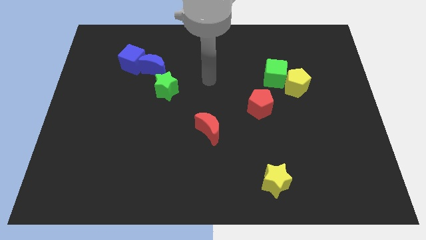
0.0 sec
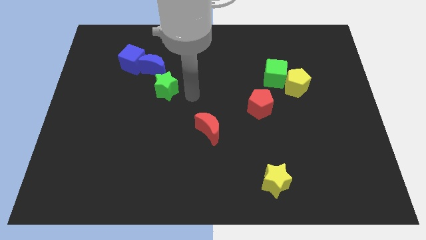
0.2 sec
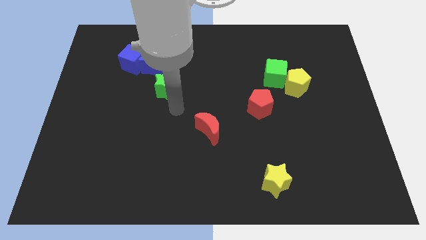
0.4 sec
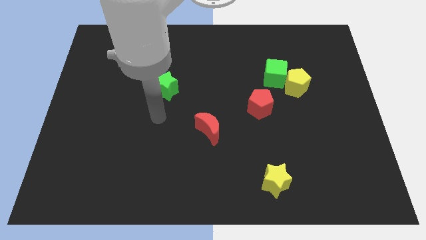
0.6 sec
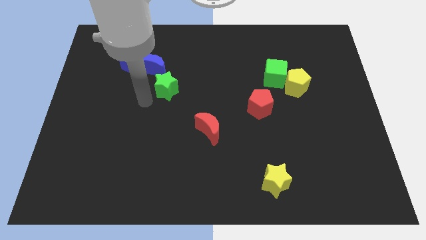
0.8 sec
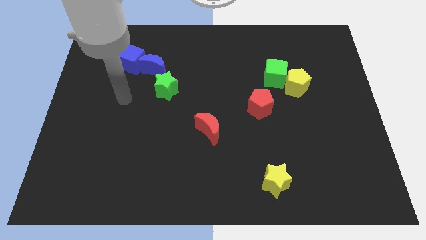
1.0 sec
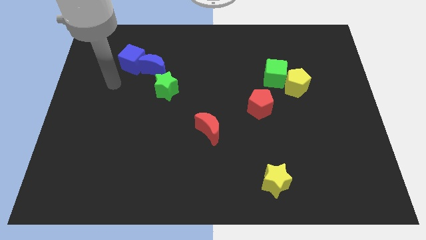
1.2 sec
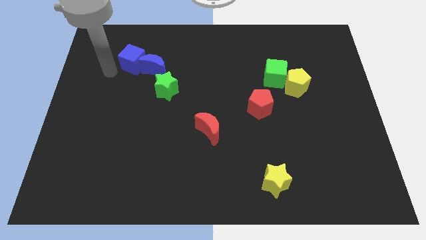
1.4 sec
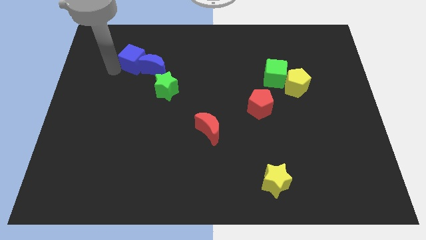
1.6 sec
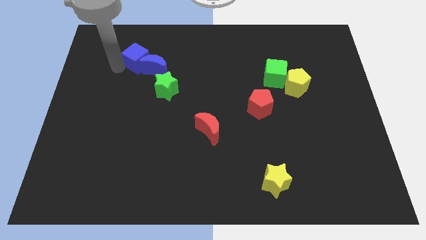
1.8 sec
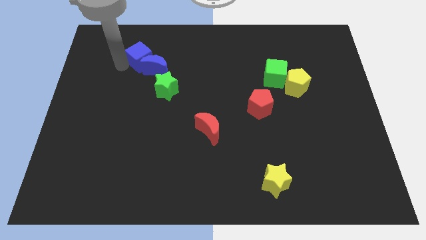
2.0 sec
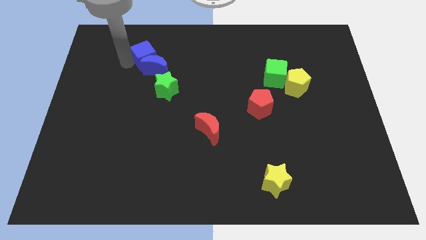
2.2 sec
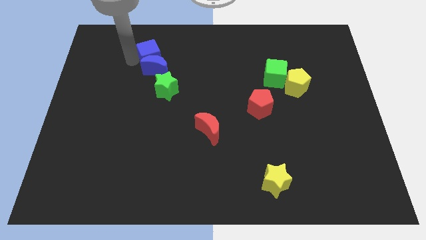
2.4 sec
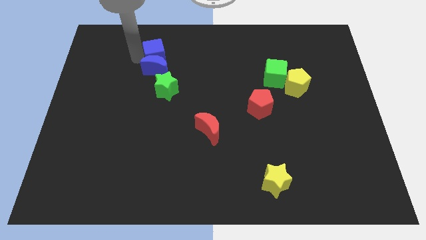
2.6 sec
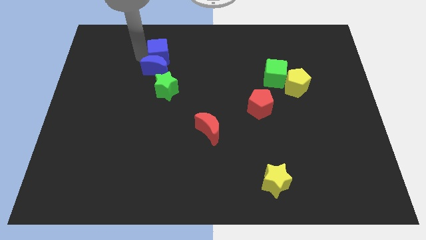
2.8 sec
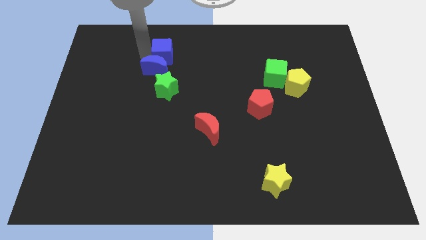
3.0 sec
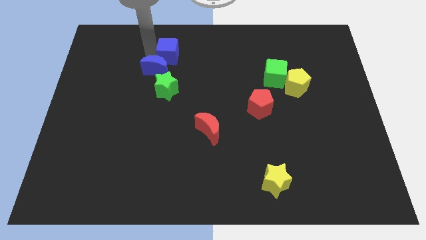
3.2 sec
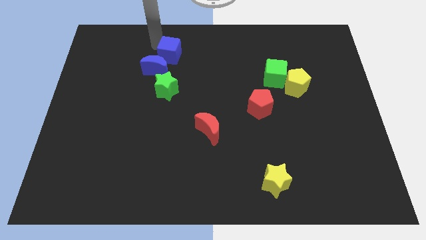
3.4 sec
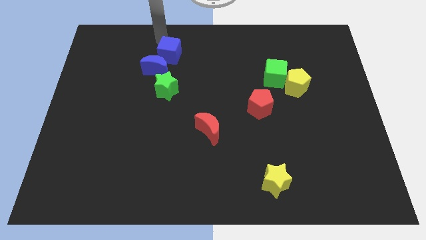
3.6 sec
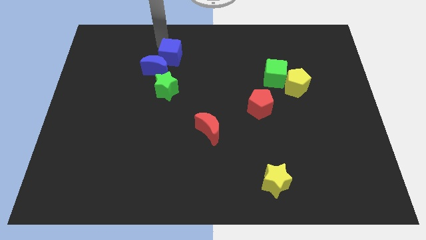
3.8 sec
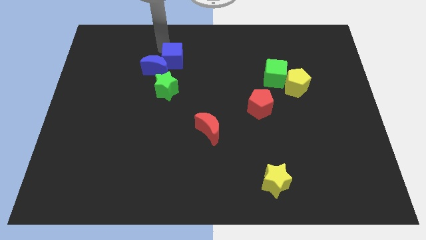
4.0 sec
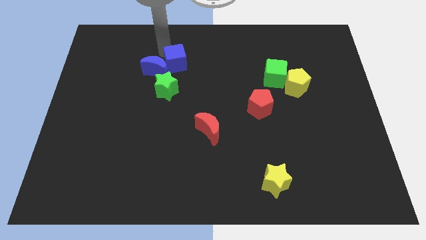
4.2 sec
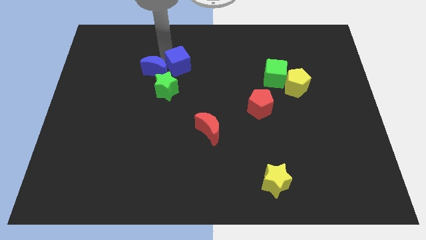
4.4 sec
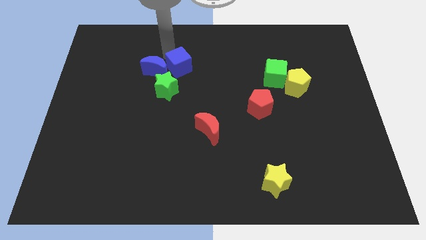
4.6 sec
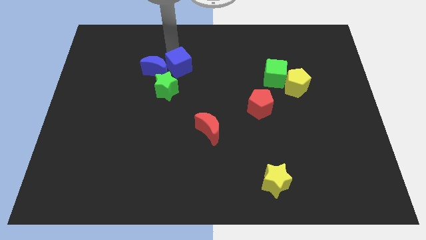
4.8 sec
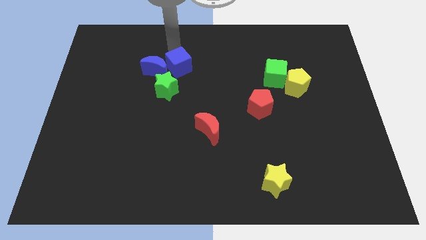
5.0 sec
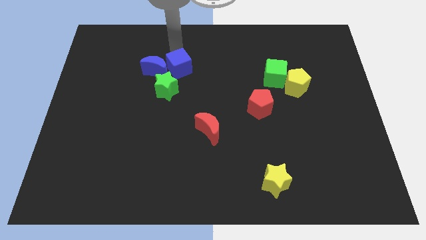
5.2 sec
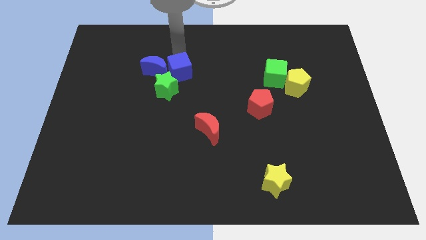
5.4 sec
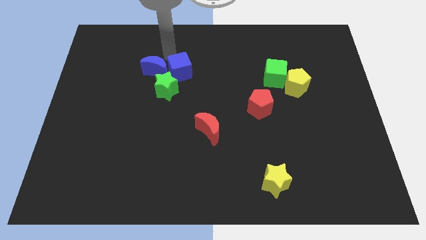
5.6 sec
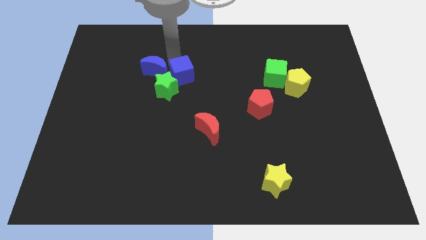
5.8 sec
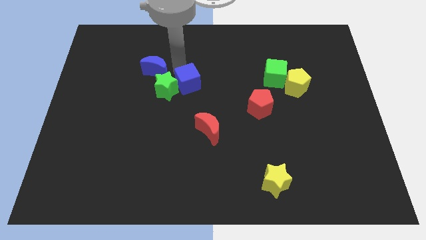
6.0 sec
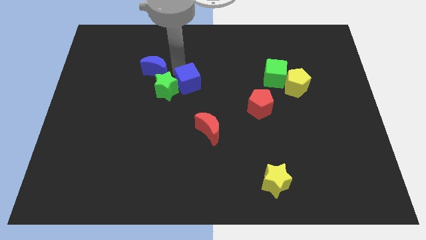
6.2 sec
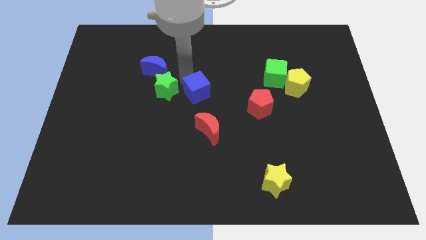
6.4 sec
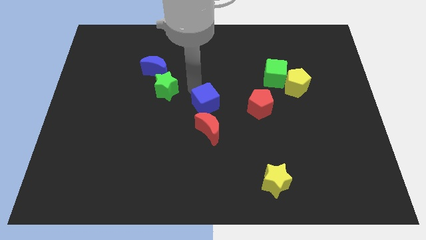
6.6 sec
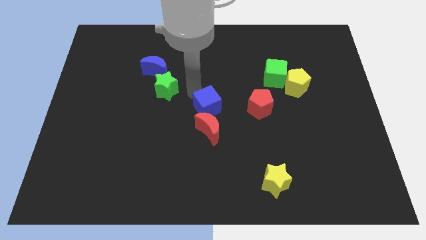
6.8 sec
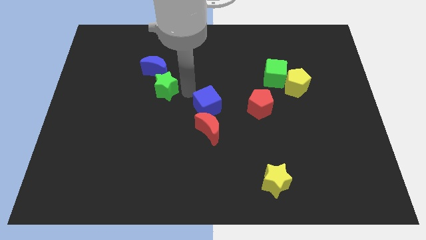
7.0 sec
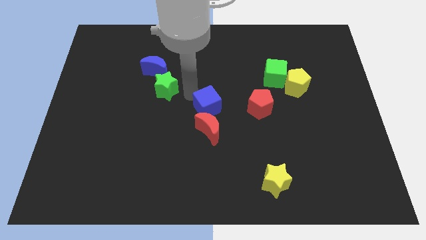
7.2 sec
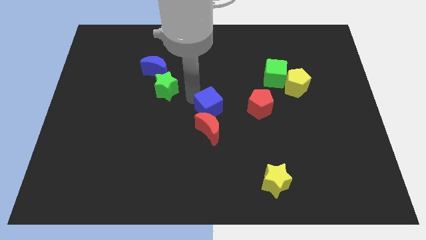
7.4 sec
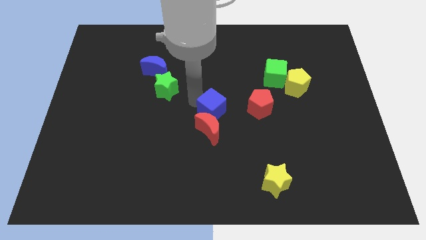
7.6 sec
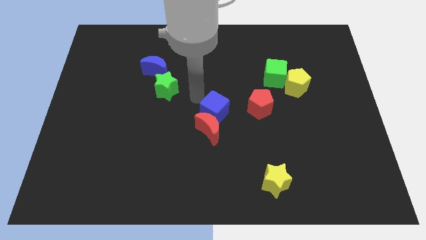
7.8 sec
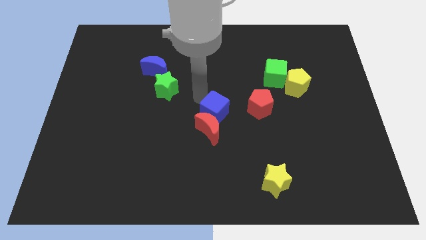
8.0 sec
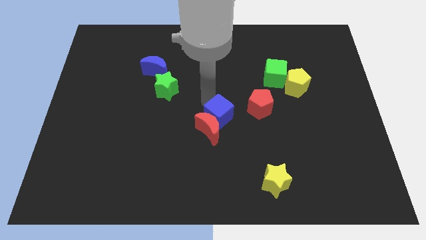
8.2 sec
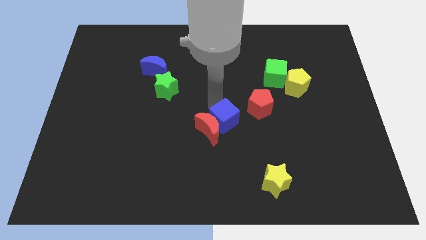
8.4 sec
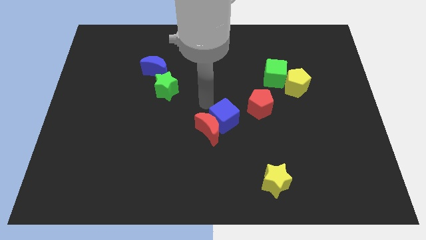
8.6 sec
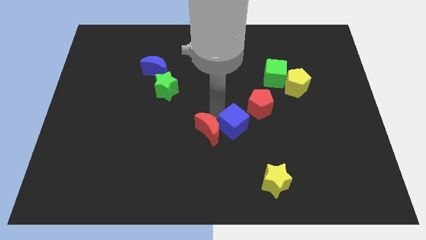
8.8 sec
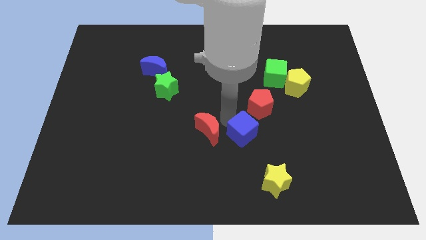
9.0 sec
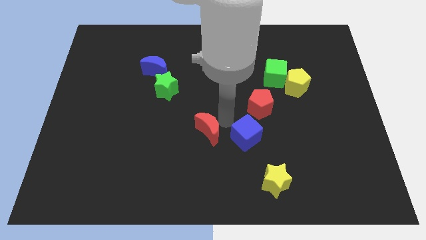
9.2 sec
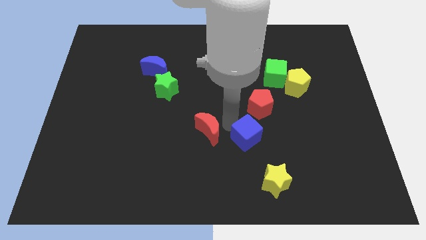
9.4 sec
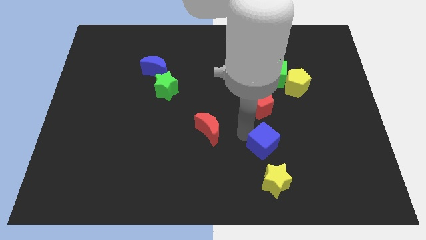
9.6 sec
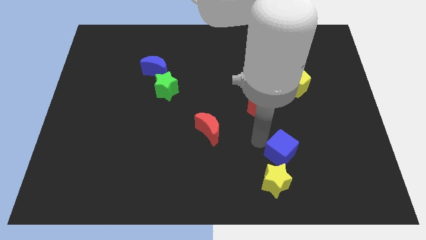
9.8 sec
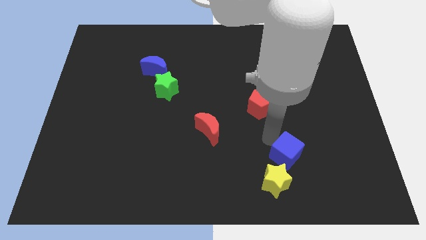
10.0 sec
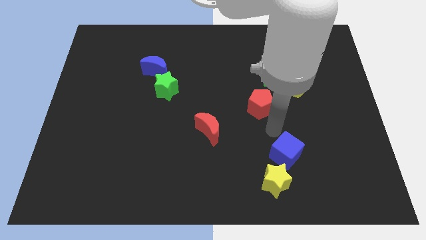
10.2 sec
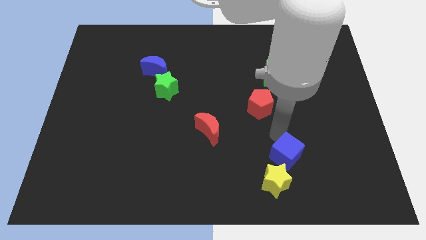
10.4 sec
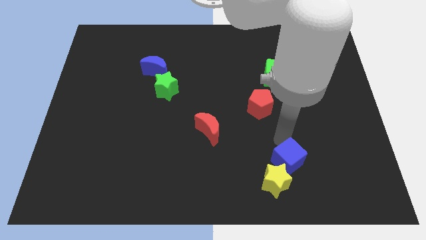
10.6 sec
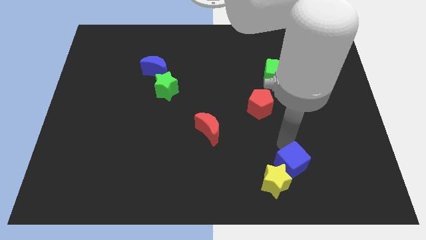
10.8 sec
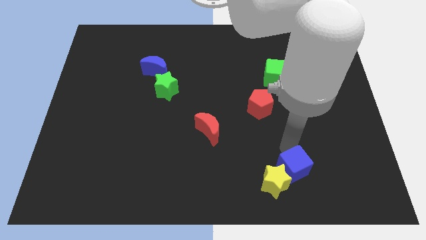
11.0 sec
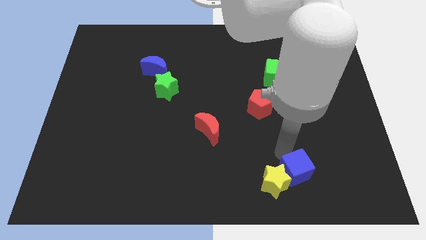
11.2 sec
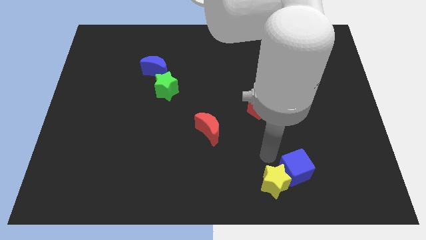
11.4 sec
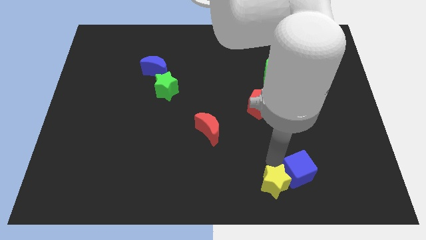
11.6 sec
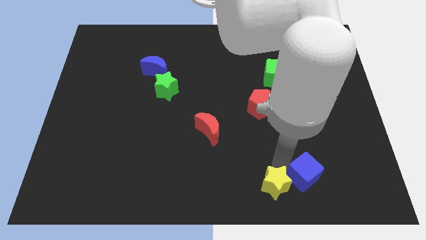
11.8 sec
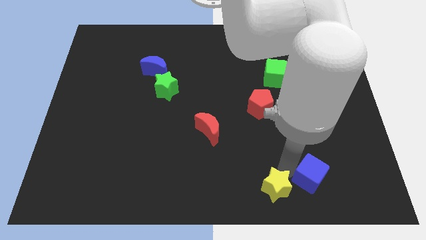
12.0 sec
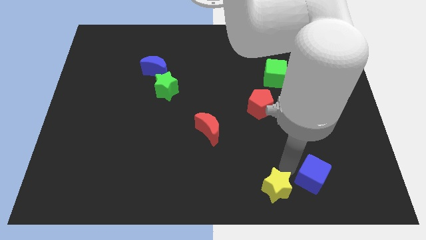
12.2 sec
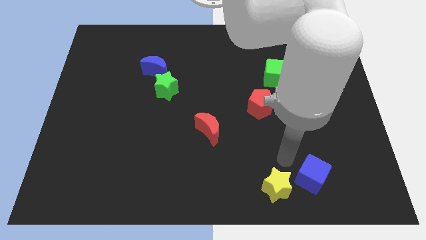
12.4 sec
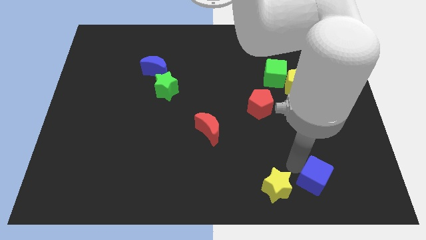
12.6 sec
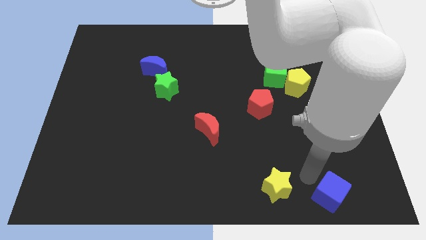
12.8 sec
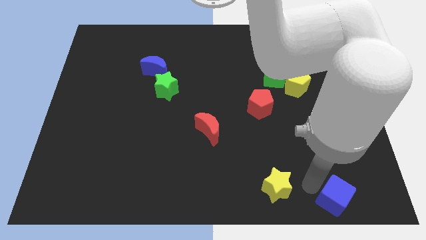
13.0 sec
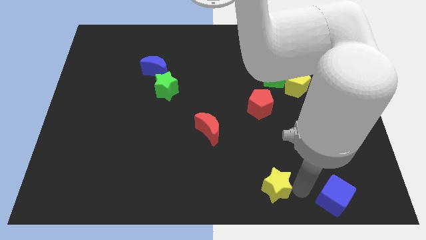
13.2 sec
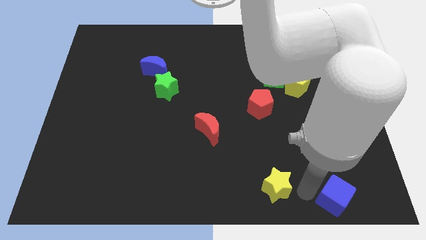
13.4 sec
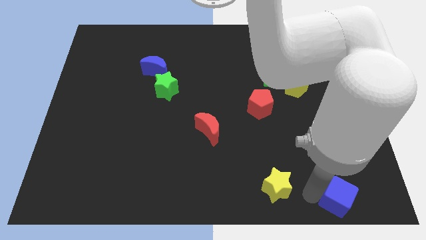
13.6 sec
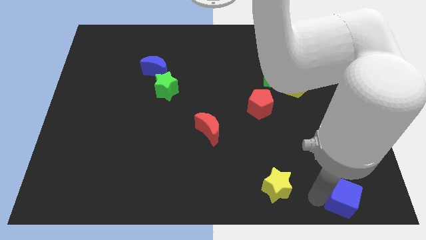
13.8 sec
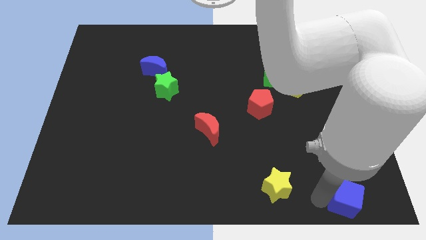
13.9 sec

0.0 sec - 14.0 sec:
slide the blue cube to the bottom right

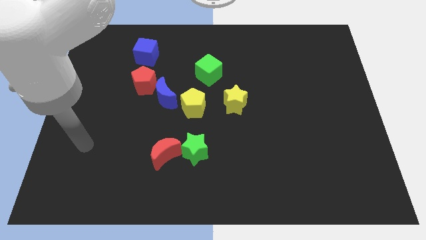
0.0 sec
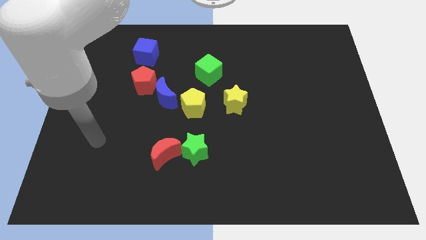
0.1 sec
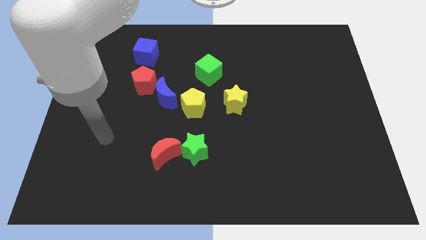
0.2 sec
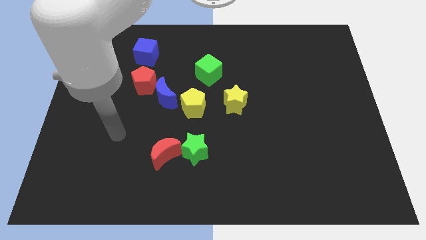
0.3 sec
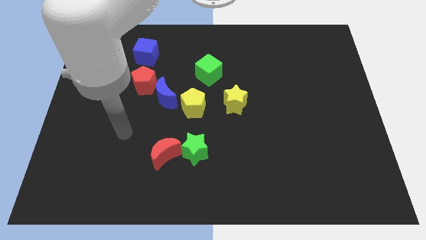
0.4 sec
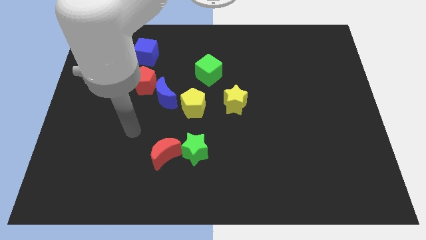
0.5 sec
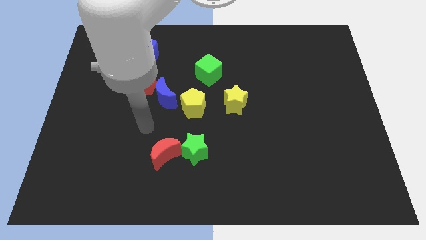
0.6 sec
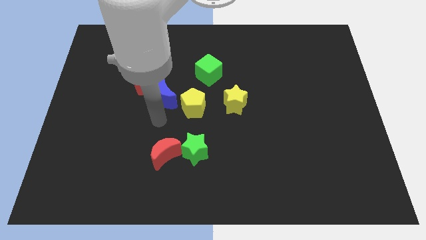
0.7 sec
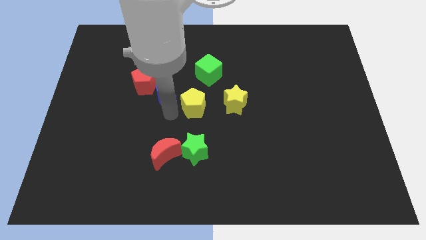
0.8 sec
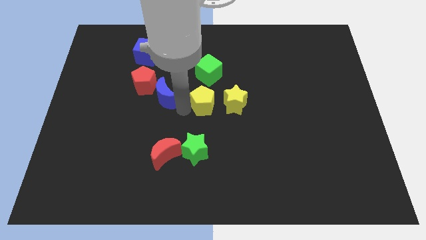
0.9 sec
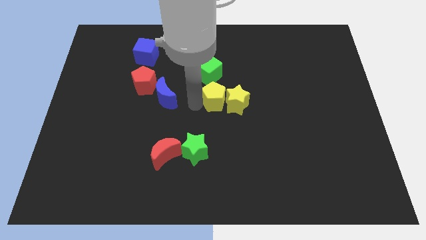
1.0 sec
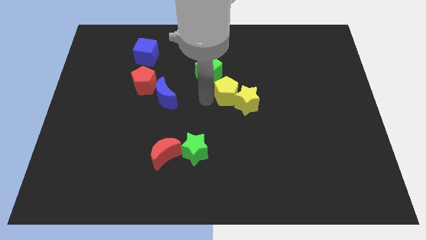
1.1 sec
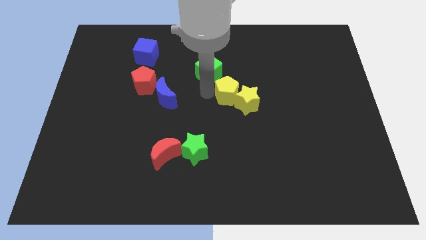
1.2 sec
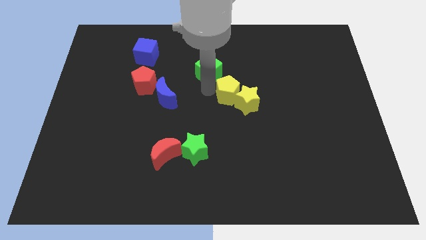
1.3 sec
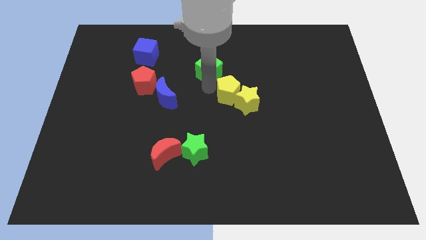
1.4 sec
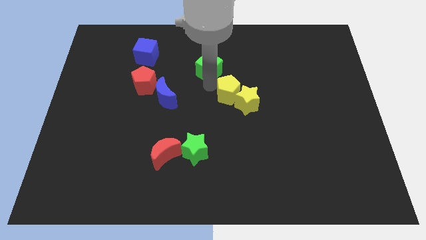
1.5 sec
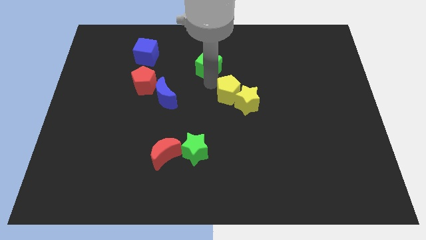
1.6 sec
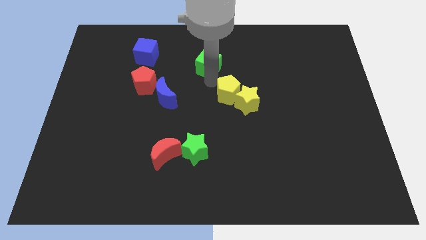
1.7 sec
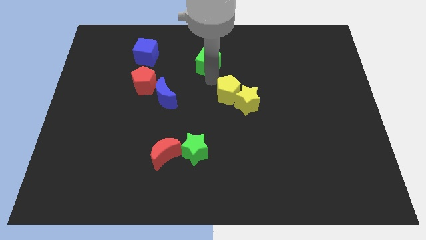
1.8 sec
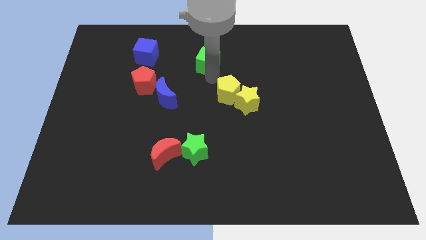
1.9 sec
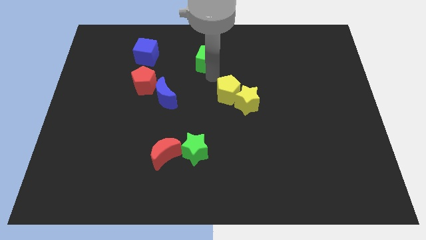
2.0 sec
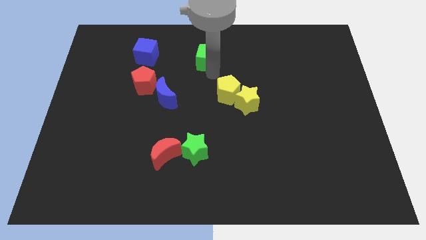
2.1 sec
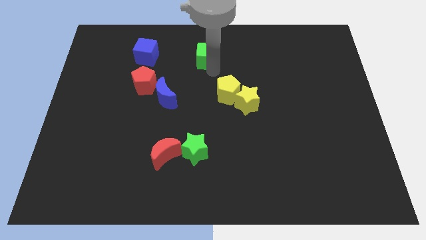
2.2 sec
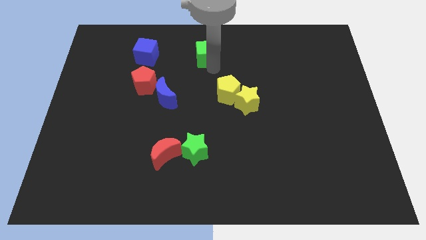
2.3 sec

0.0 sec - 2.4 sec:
move the green cube to the top
